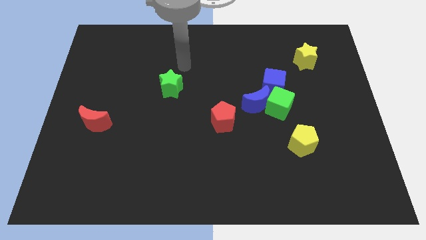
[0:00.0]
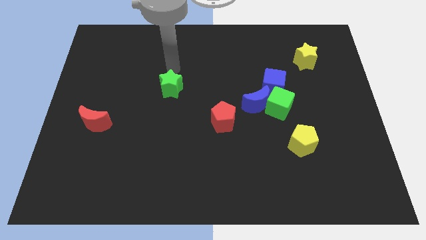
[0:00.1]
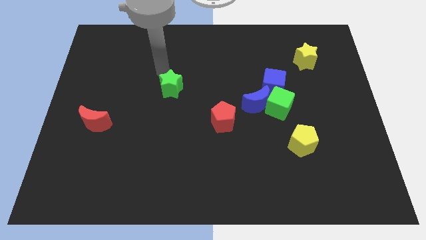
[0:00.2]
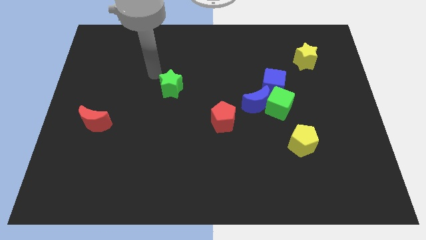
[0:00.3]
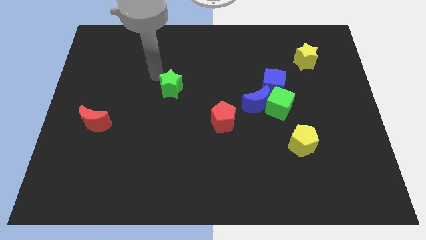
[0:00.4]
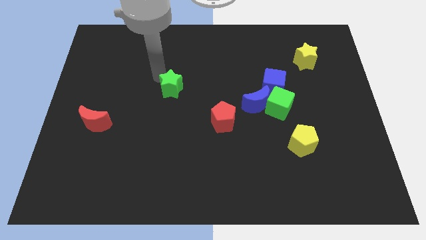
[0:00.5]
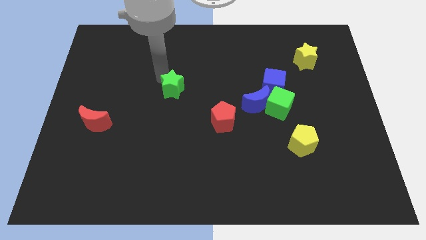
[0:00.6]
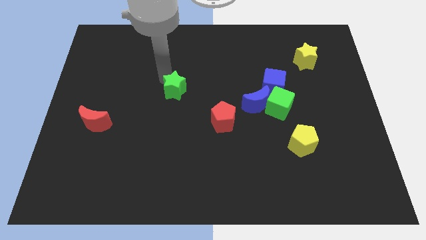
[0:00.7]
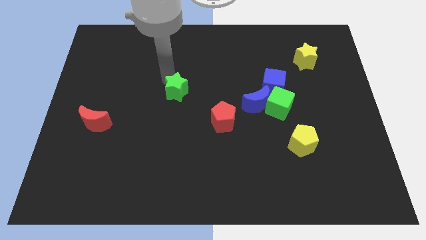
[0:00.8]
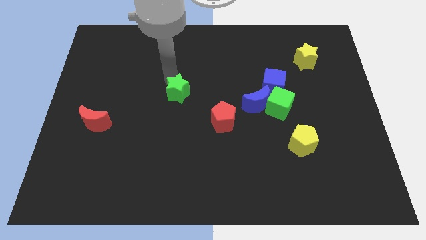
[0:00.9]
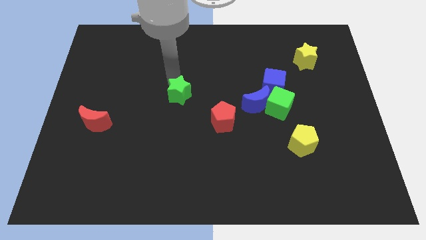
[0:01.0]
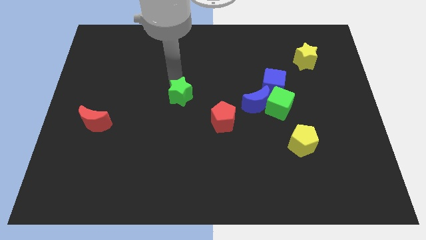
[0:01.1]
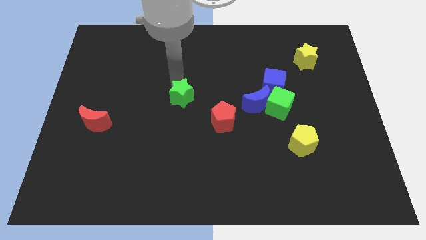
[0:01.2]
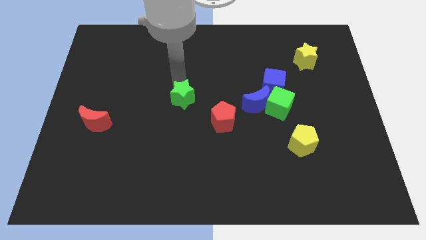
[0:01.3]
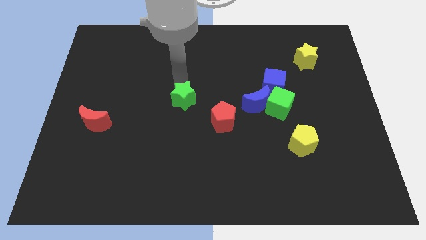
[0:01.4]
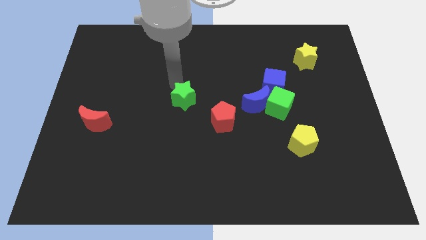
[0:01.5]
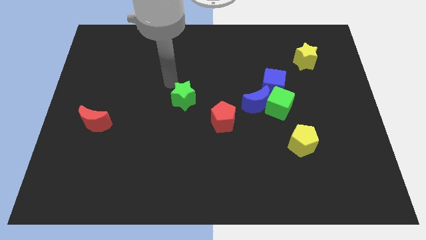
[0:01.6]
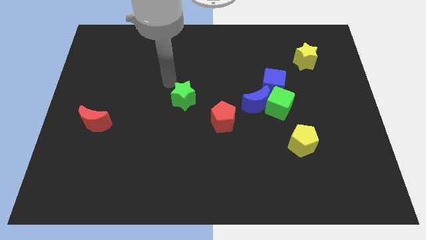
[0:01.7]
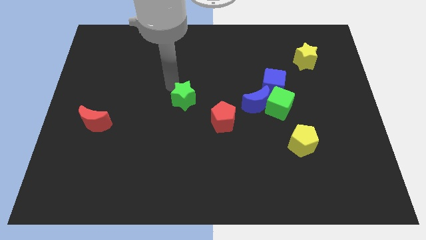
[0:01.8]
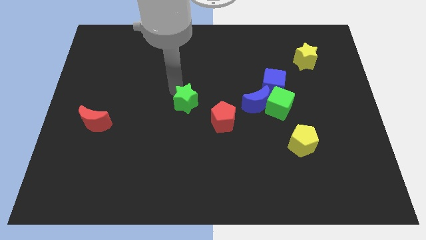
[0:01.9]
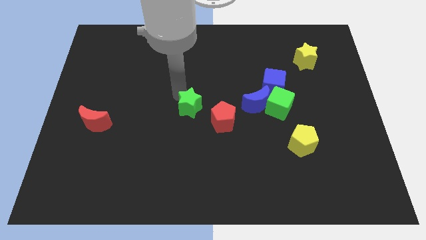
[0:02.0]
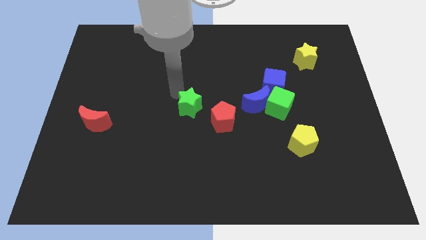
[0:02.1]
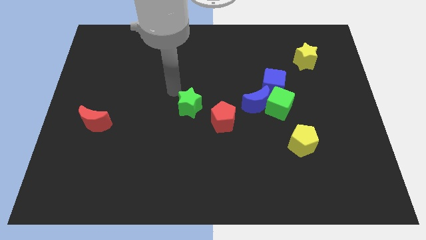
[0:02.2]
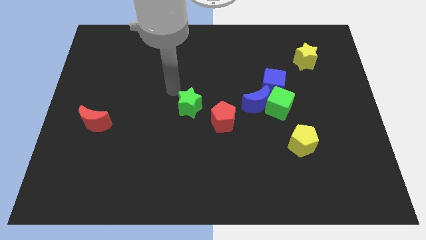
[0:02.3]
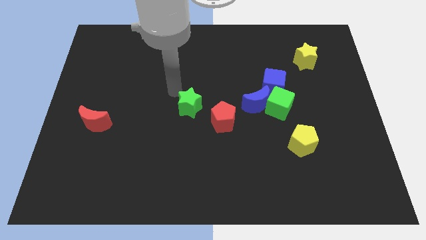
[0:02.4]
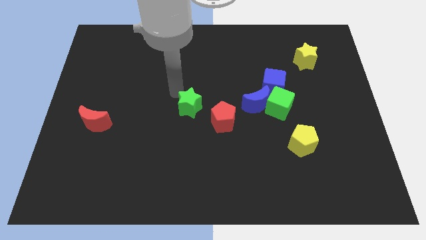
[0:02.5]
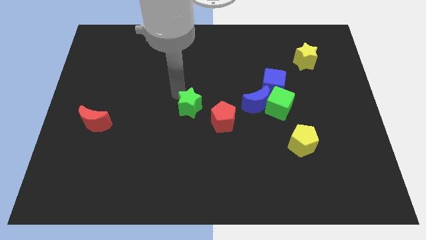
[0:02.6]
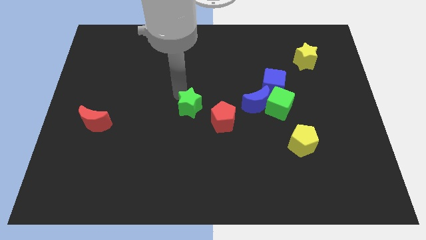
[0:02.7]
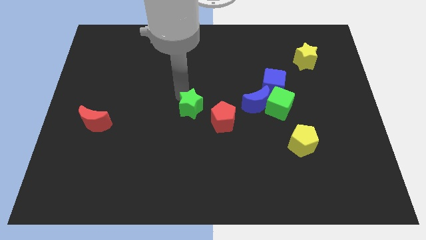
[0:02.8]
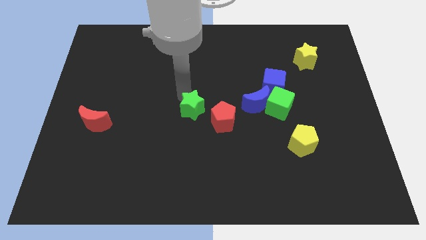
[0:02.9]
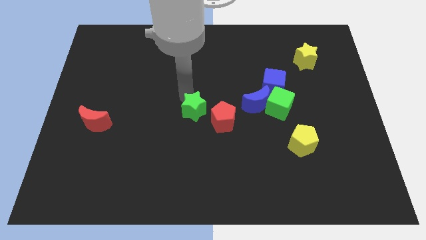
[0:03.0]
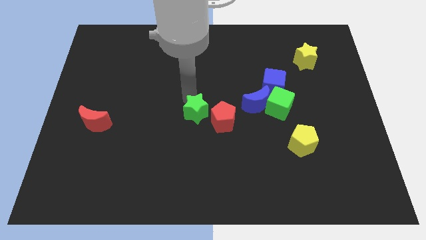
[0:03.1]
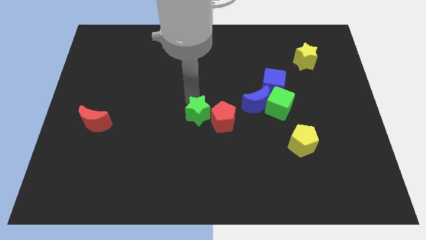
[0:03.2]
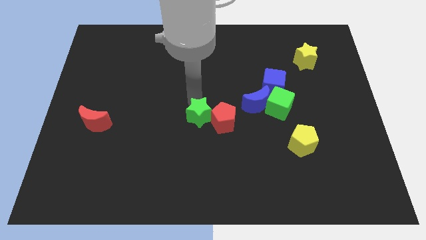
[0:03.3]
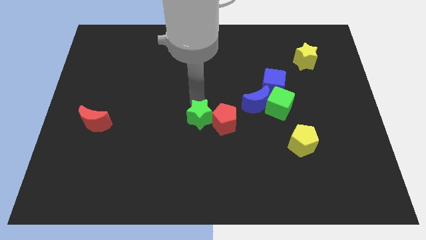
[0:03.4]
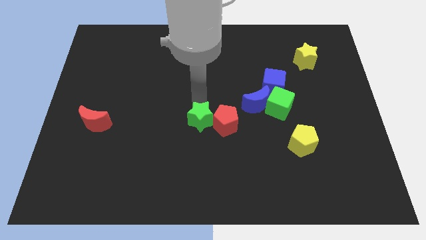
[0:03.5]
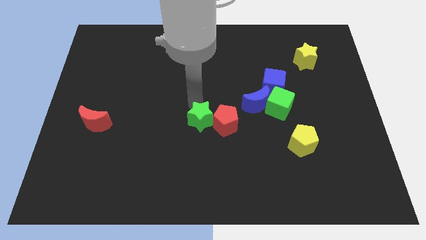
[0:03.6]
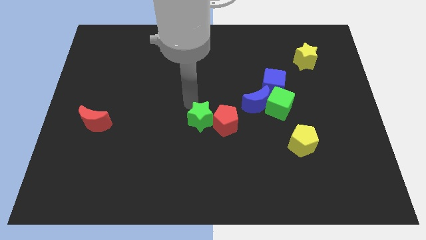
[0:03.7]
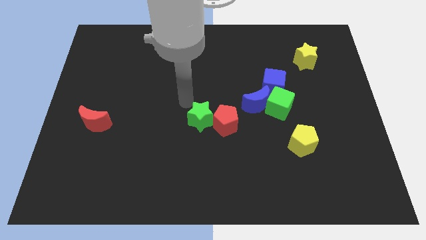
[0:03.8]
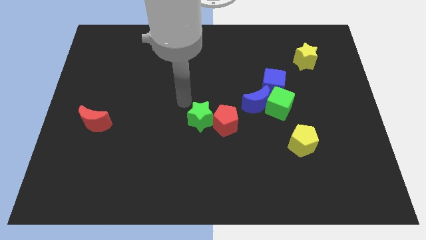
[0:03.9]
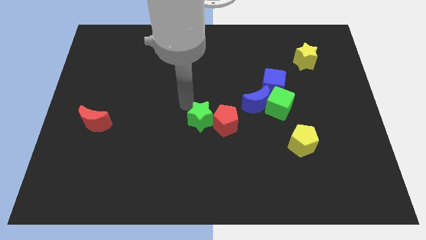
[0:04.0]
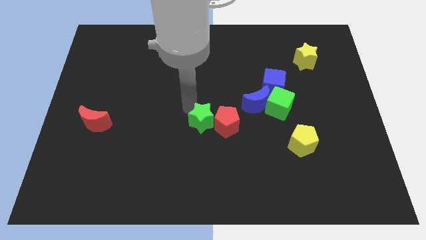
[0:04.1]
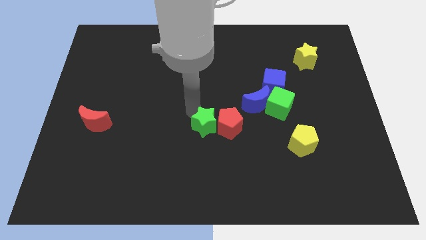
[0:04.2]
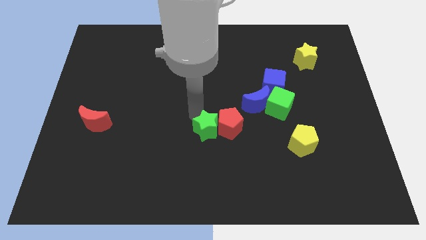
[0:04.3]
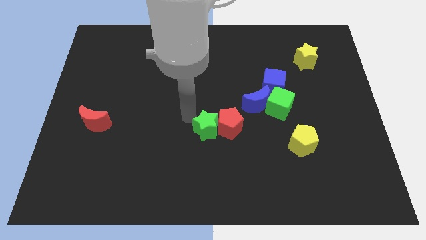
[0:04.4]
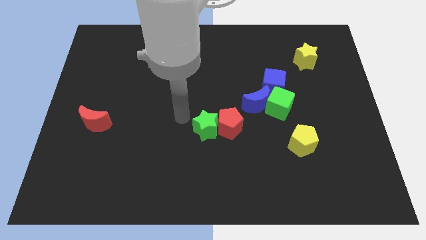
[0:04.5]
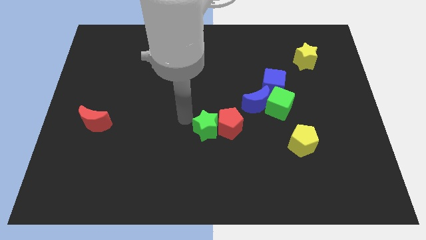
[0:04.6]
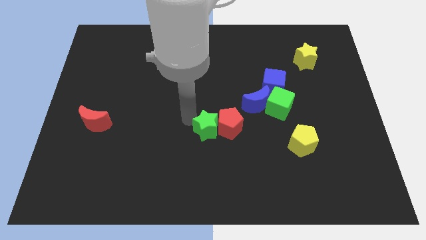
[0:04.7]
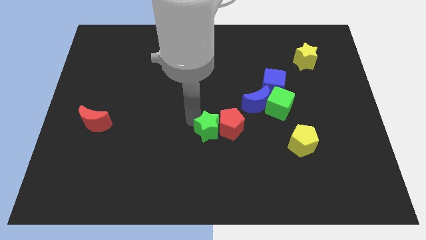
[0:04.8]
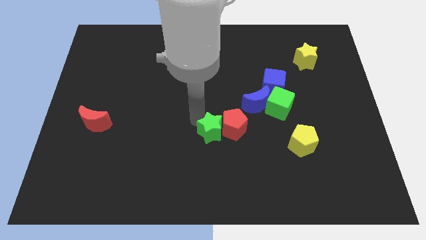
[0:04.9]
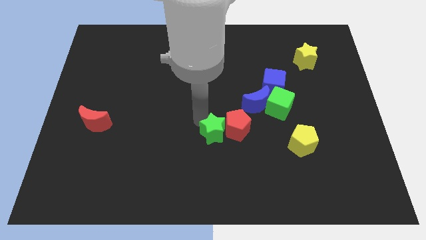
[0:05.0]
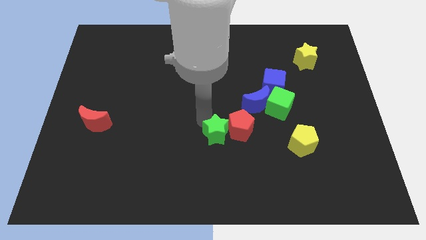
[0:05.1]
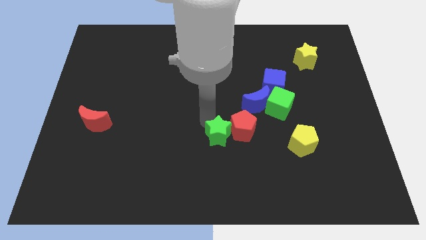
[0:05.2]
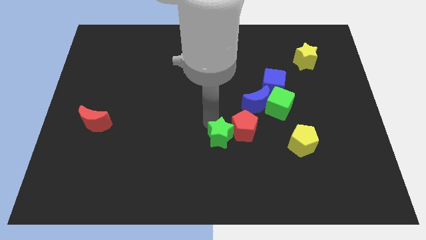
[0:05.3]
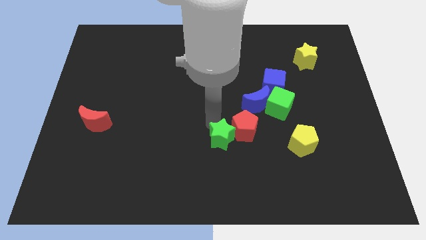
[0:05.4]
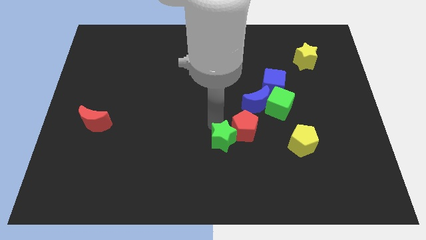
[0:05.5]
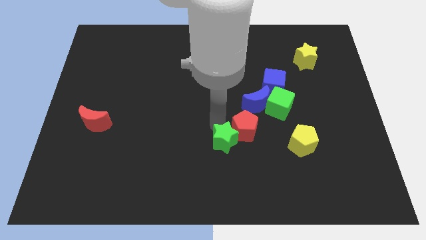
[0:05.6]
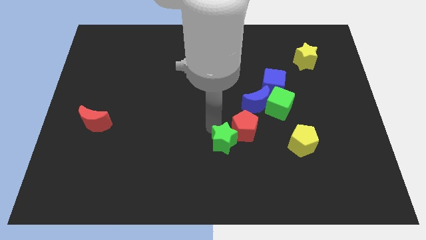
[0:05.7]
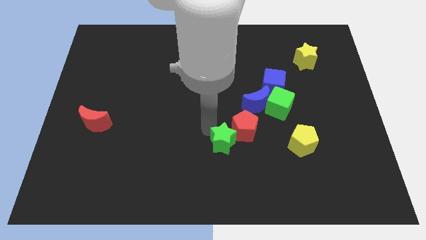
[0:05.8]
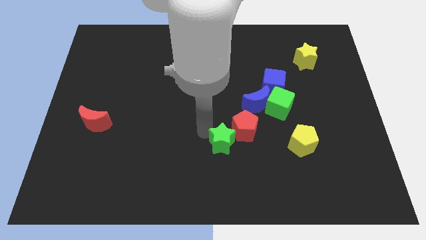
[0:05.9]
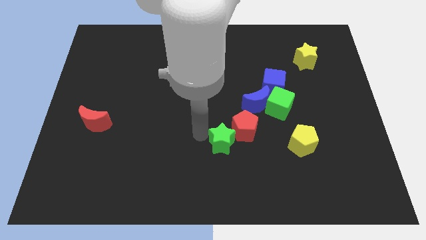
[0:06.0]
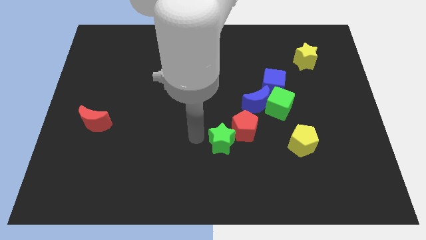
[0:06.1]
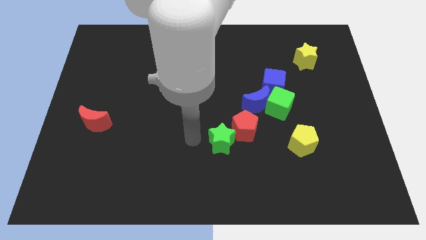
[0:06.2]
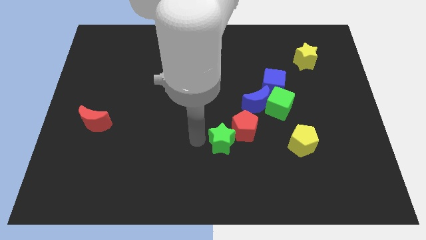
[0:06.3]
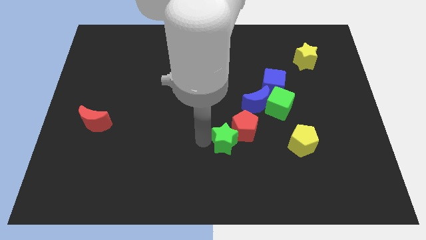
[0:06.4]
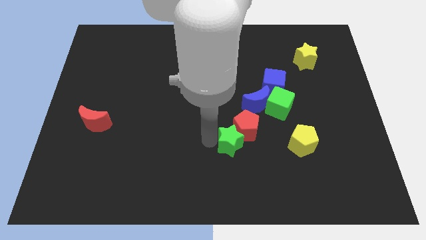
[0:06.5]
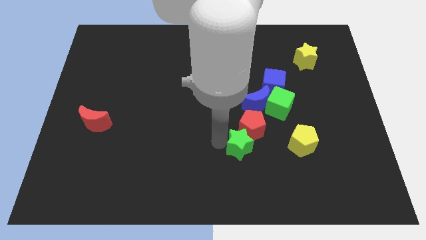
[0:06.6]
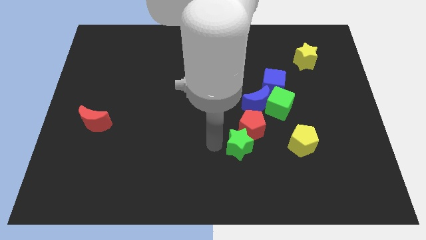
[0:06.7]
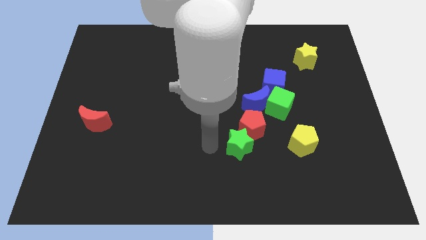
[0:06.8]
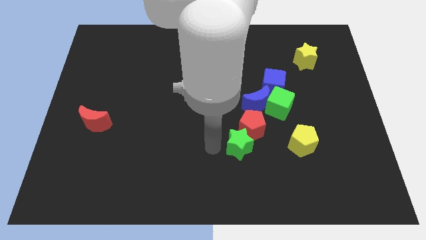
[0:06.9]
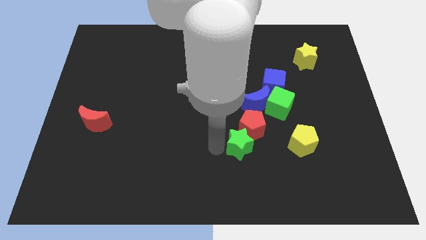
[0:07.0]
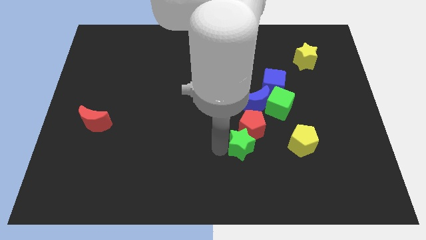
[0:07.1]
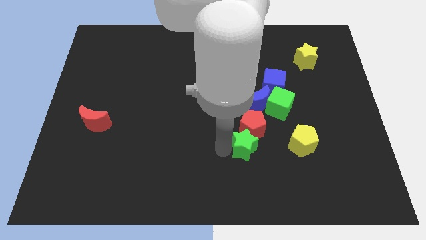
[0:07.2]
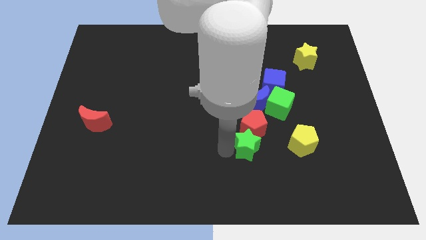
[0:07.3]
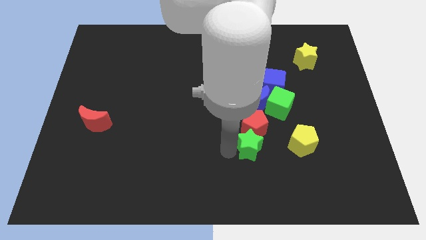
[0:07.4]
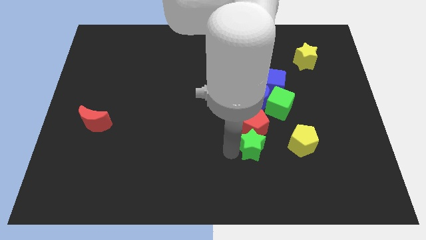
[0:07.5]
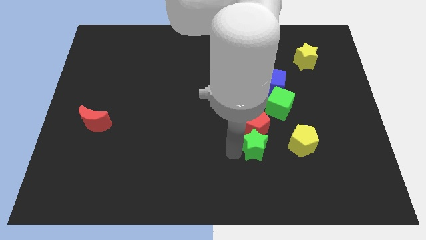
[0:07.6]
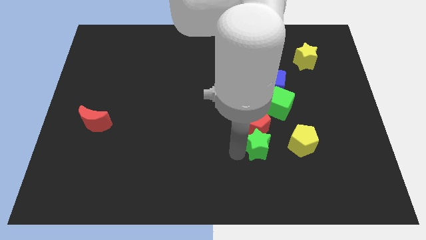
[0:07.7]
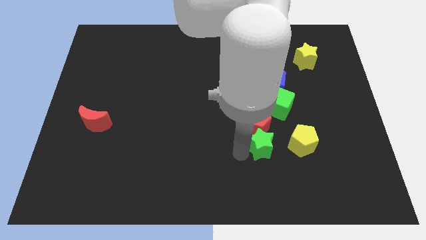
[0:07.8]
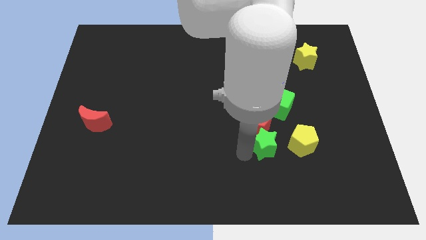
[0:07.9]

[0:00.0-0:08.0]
slide the green star below the green cube
